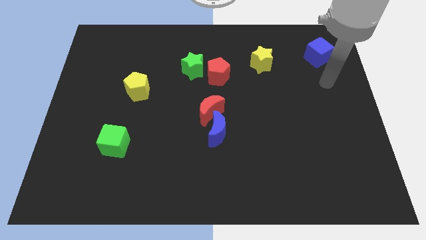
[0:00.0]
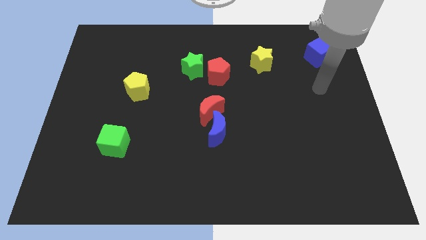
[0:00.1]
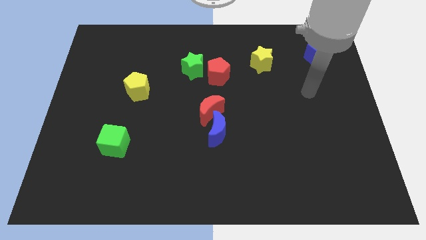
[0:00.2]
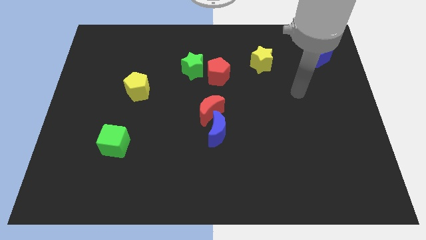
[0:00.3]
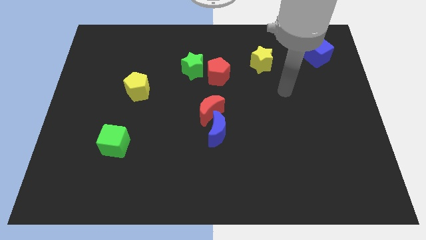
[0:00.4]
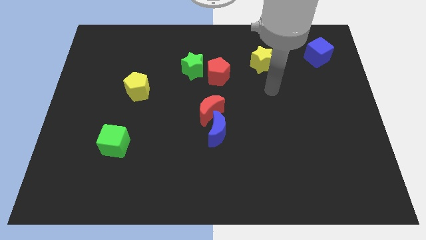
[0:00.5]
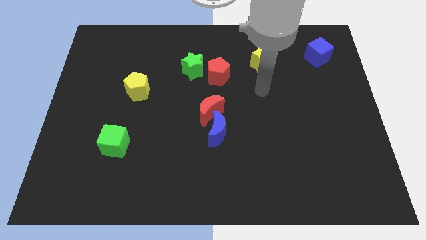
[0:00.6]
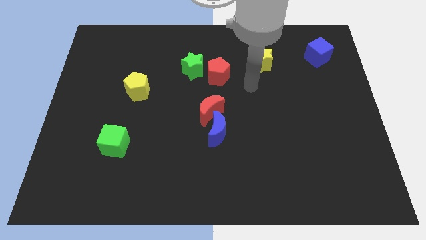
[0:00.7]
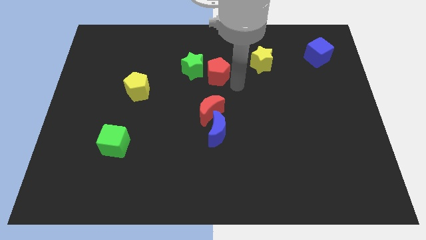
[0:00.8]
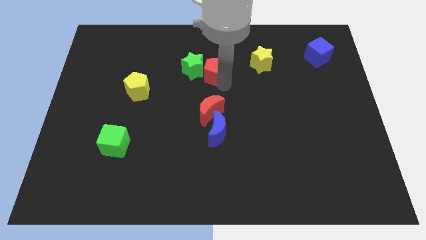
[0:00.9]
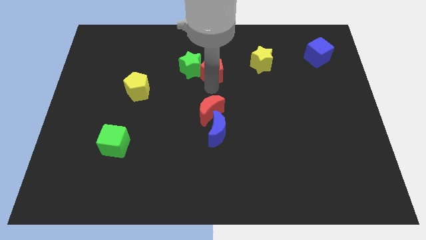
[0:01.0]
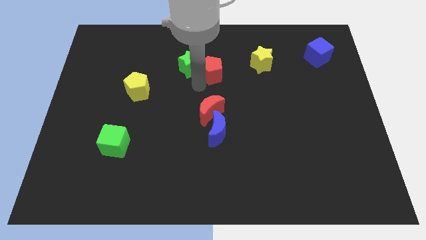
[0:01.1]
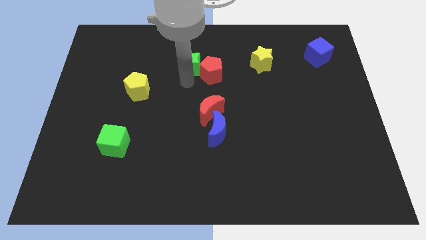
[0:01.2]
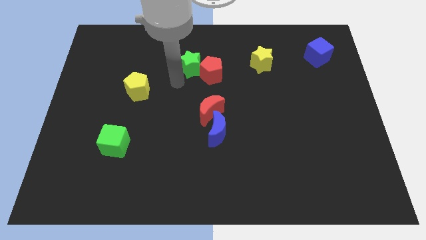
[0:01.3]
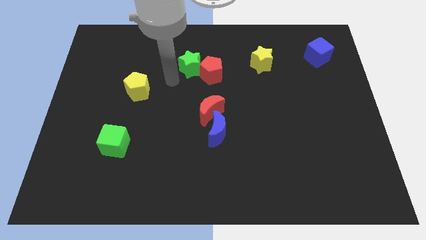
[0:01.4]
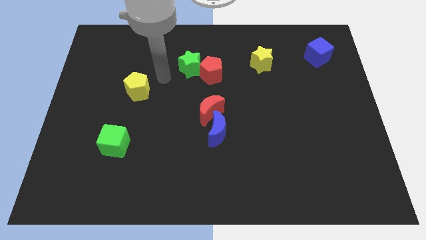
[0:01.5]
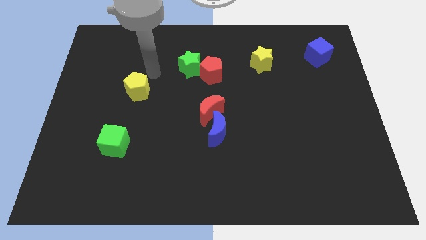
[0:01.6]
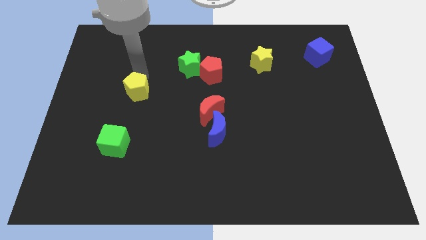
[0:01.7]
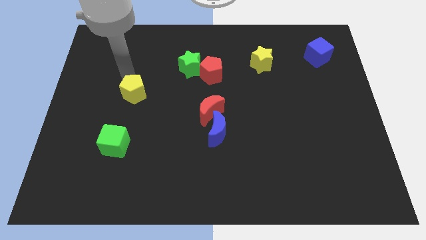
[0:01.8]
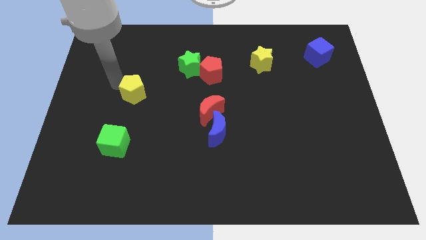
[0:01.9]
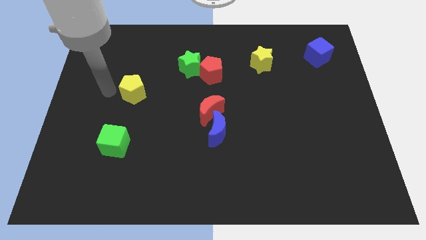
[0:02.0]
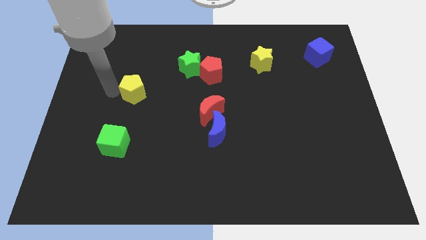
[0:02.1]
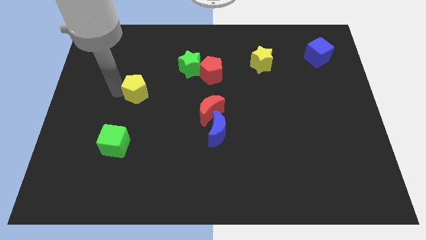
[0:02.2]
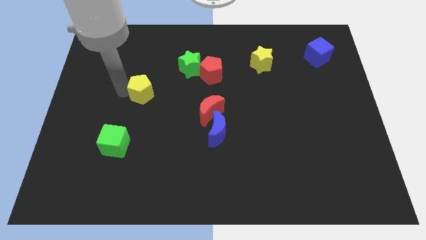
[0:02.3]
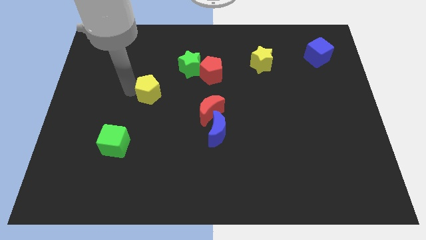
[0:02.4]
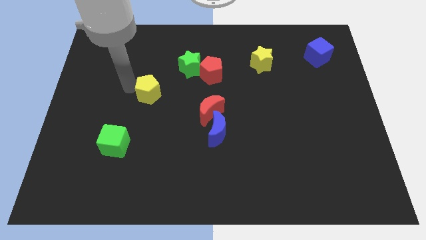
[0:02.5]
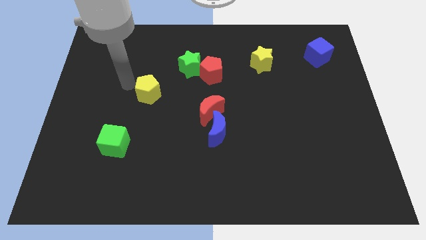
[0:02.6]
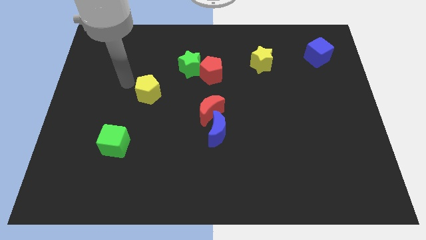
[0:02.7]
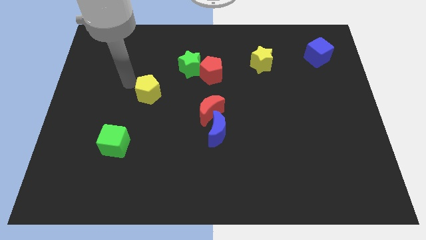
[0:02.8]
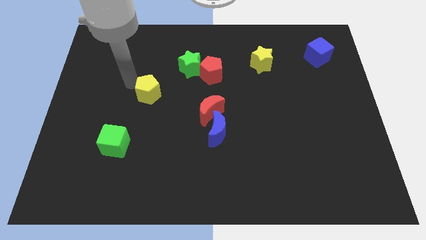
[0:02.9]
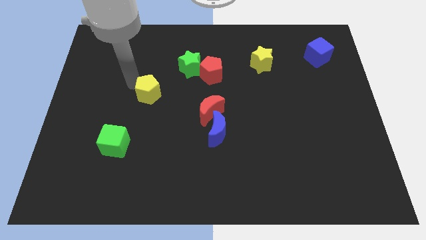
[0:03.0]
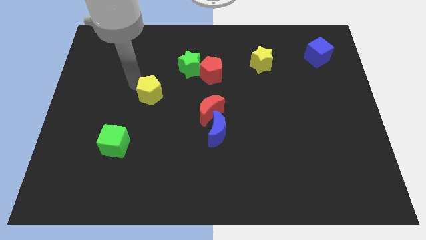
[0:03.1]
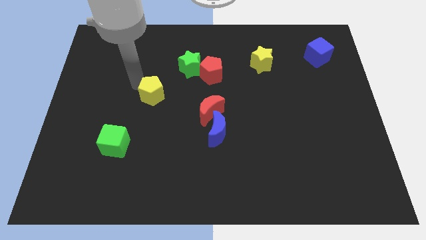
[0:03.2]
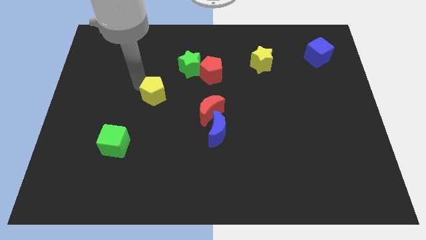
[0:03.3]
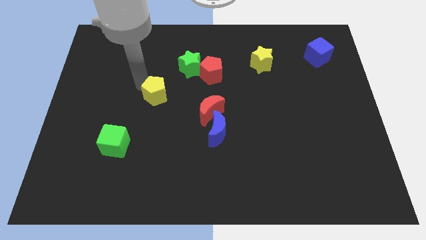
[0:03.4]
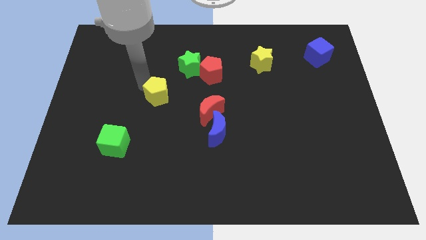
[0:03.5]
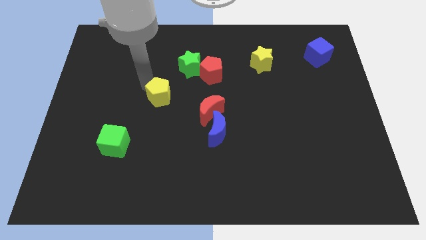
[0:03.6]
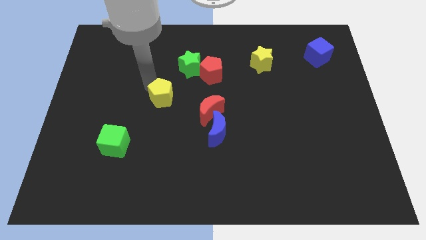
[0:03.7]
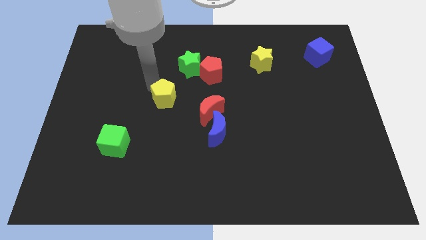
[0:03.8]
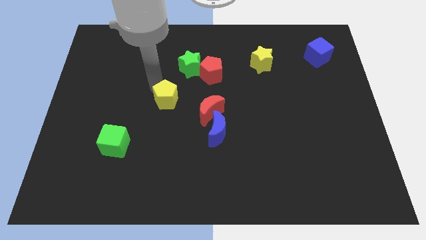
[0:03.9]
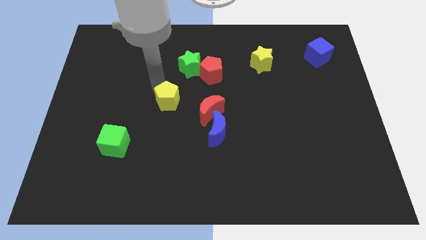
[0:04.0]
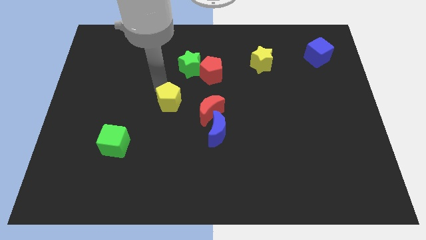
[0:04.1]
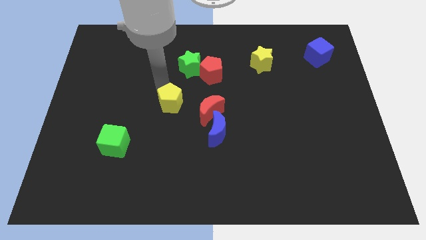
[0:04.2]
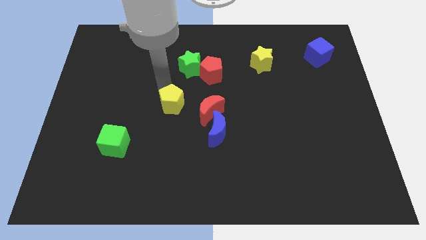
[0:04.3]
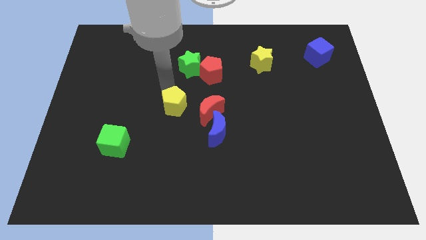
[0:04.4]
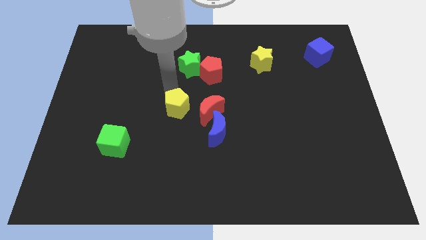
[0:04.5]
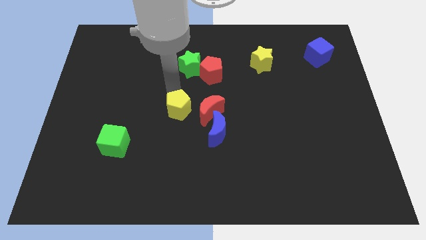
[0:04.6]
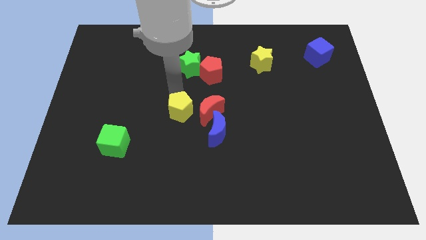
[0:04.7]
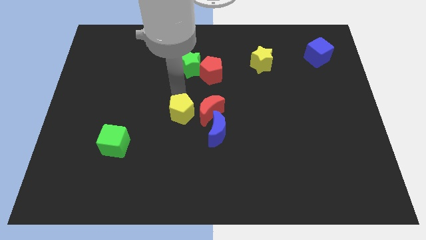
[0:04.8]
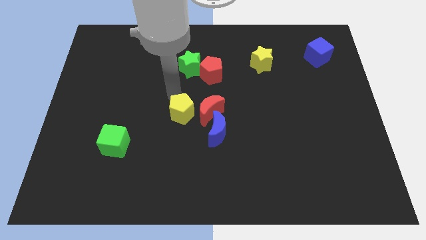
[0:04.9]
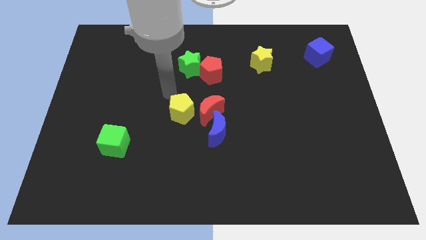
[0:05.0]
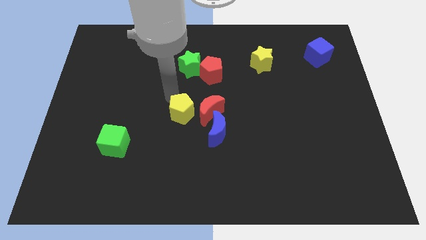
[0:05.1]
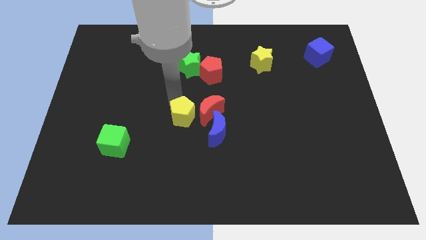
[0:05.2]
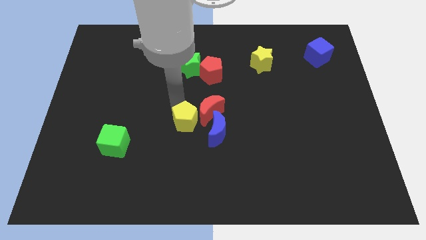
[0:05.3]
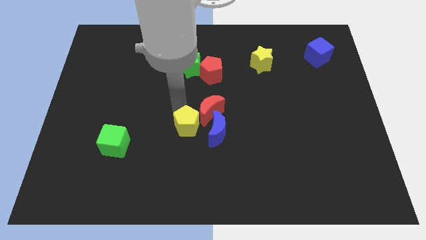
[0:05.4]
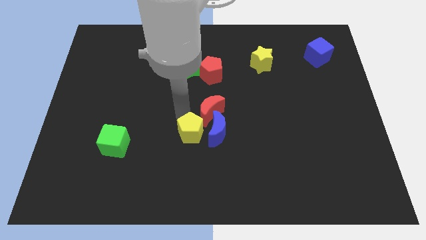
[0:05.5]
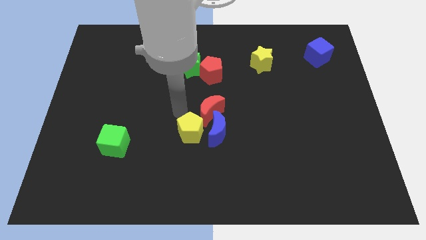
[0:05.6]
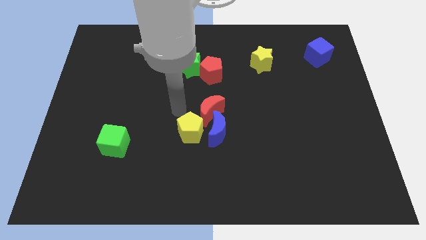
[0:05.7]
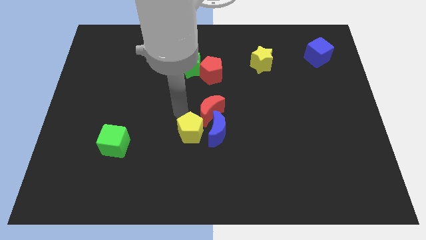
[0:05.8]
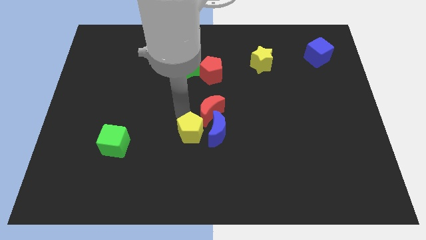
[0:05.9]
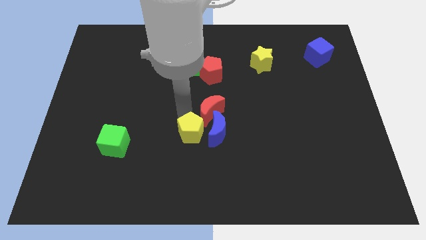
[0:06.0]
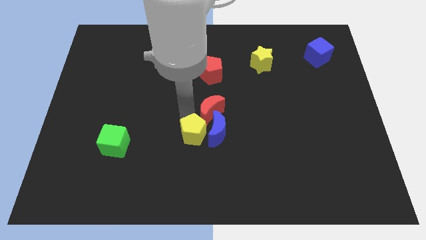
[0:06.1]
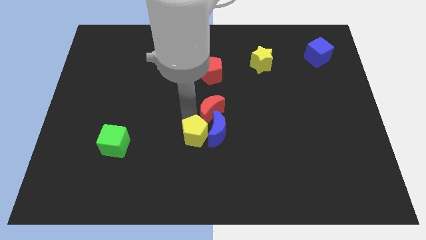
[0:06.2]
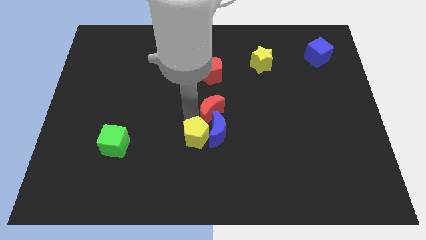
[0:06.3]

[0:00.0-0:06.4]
push the yellow pentagon down and then to the right

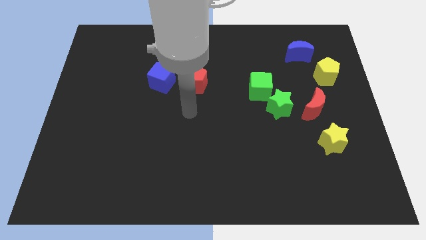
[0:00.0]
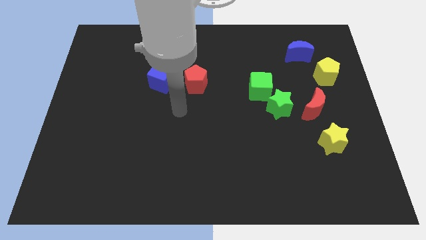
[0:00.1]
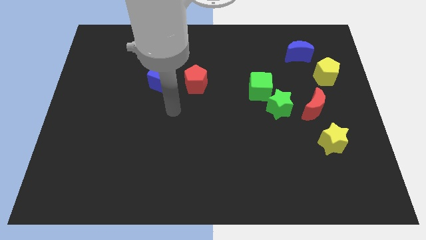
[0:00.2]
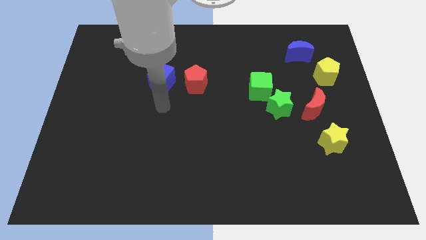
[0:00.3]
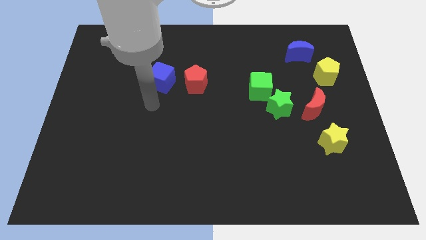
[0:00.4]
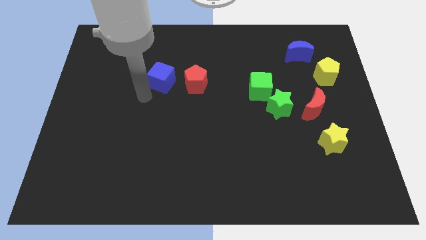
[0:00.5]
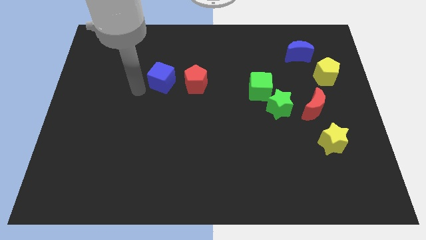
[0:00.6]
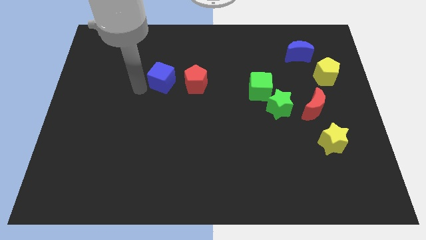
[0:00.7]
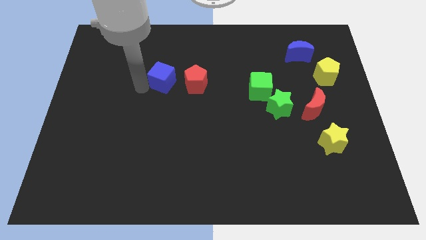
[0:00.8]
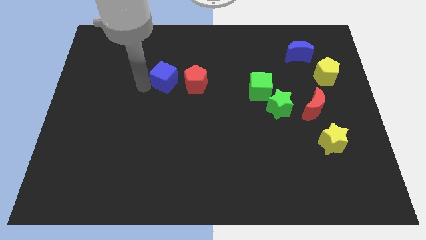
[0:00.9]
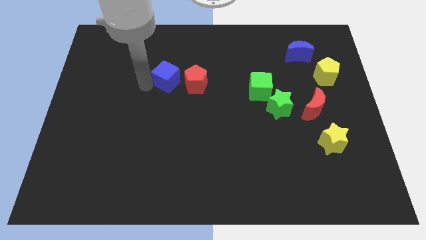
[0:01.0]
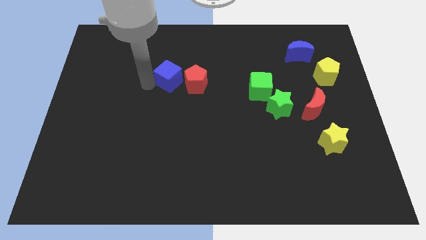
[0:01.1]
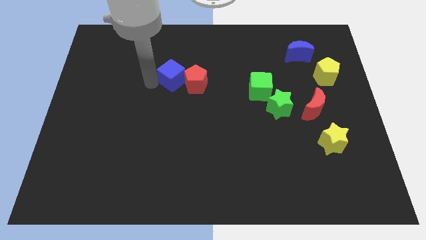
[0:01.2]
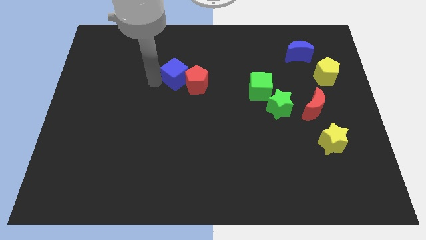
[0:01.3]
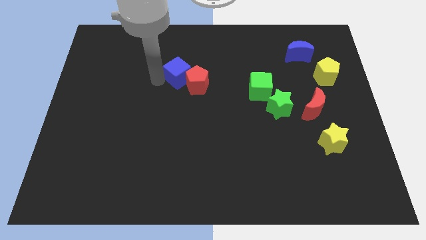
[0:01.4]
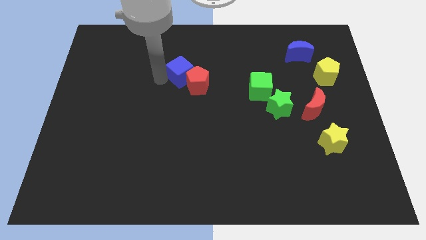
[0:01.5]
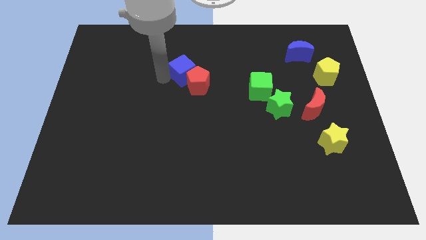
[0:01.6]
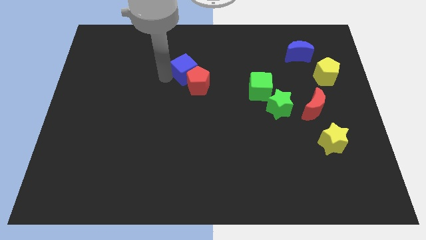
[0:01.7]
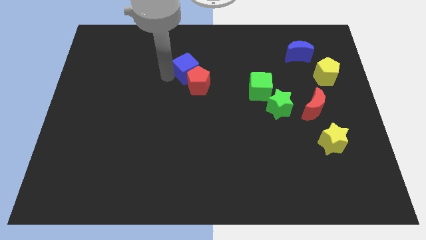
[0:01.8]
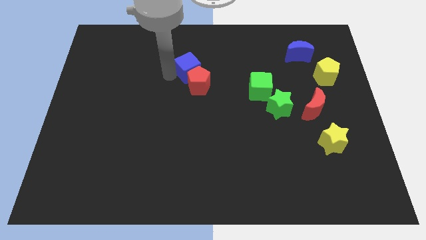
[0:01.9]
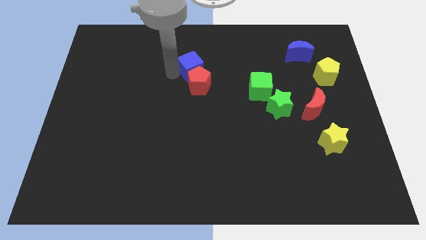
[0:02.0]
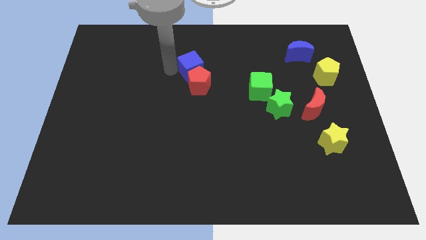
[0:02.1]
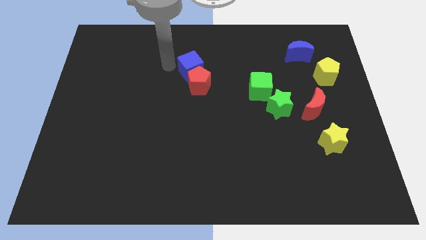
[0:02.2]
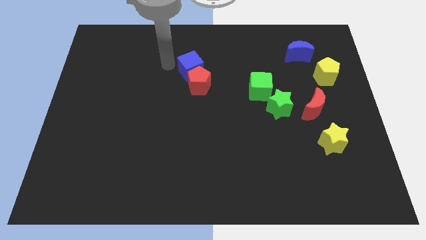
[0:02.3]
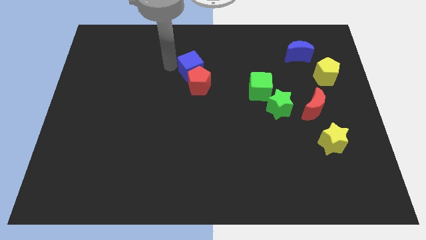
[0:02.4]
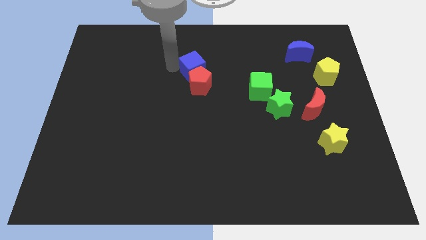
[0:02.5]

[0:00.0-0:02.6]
slide the blue cube a bit right
